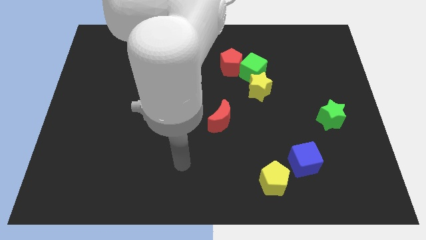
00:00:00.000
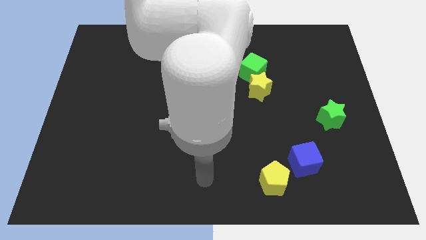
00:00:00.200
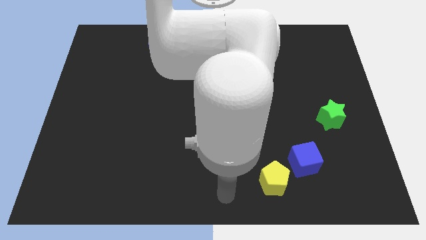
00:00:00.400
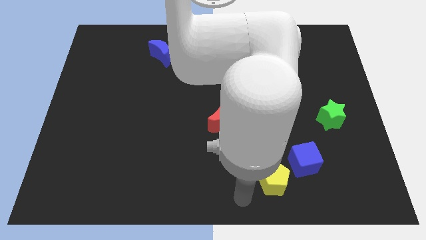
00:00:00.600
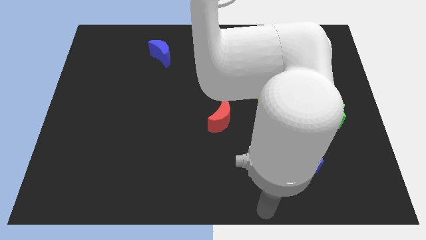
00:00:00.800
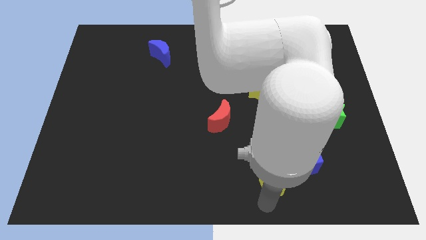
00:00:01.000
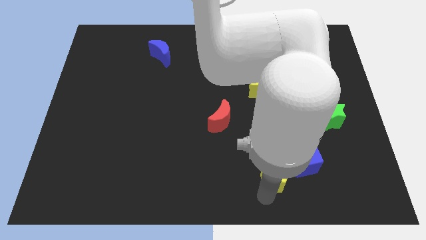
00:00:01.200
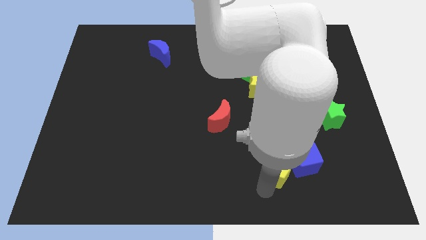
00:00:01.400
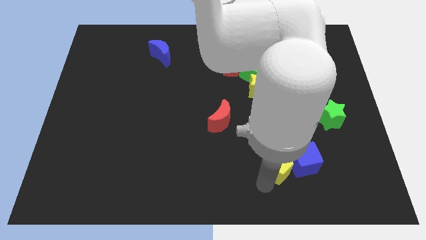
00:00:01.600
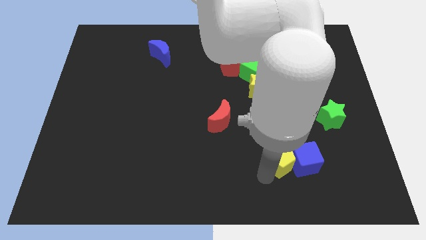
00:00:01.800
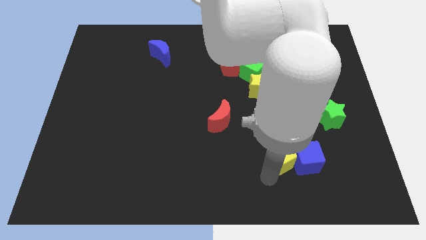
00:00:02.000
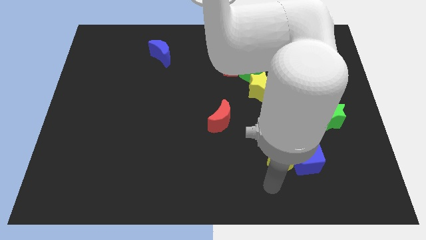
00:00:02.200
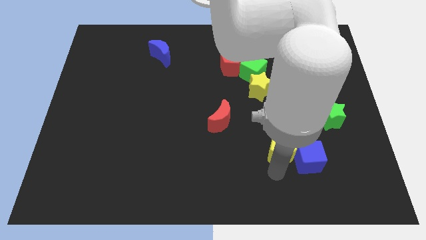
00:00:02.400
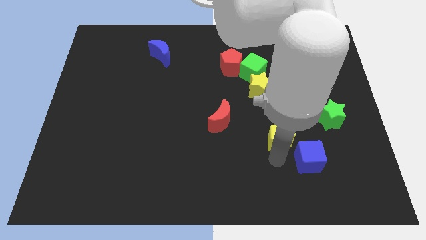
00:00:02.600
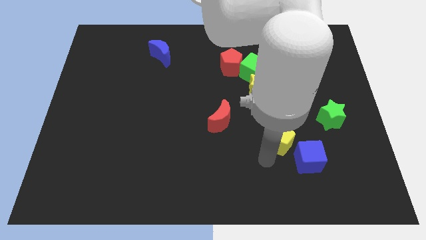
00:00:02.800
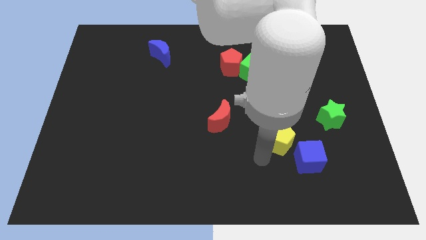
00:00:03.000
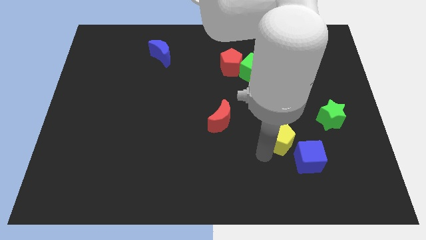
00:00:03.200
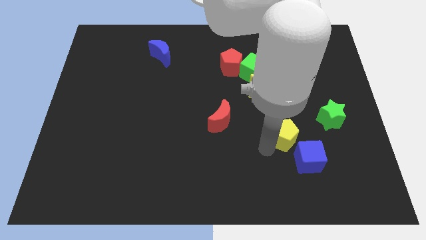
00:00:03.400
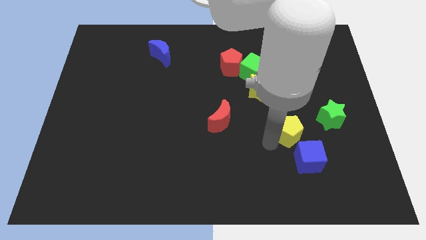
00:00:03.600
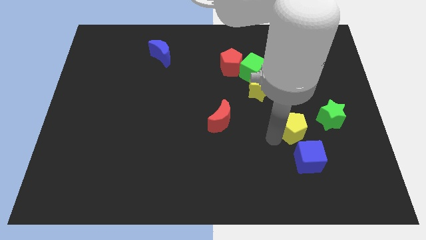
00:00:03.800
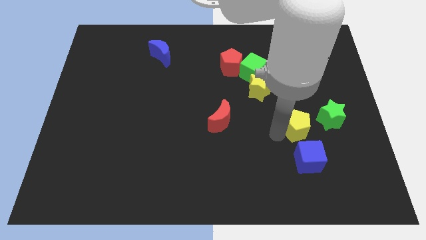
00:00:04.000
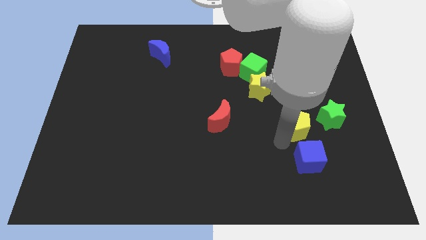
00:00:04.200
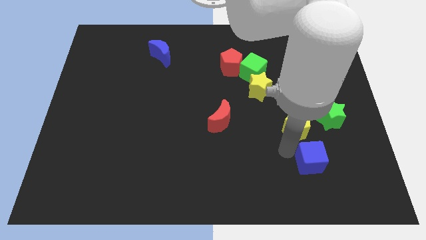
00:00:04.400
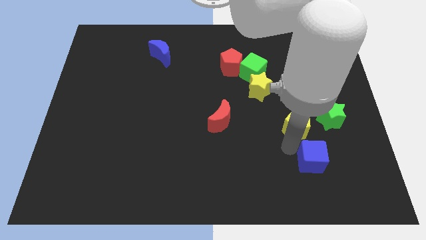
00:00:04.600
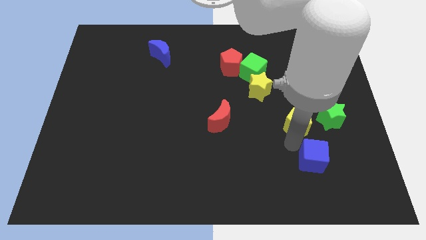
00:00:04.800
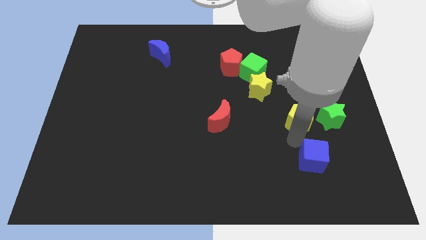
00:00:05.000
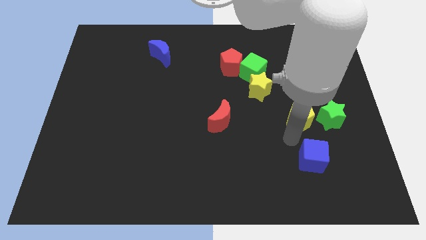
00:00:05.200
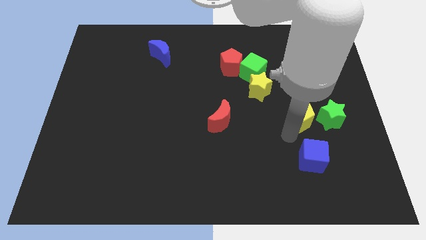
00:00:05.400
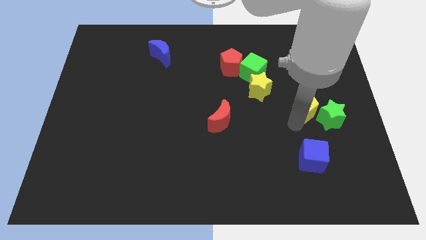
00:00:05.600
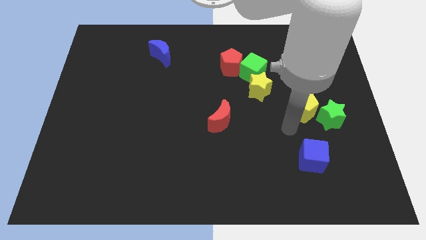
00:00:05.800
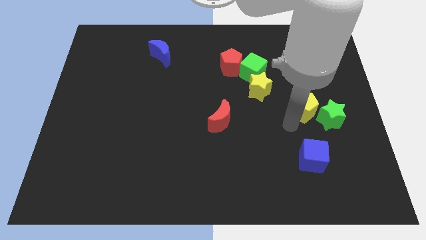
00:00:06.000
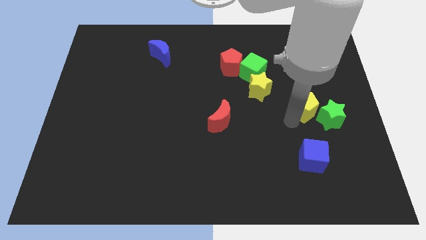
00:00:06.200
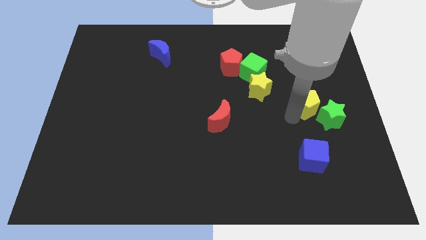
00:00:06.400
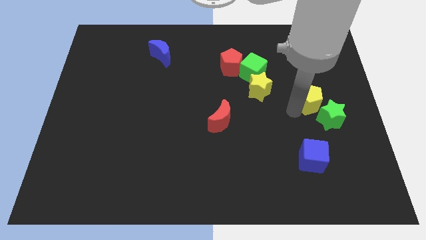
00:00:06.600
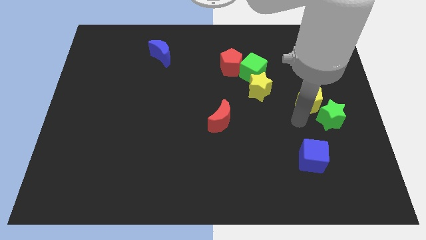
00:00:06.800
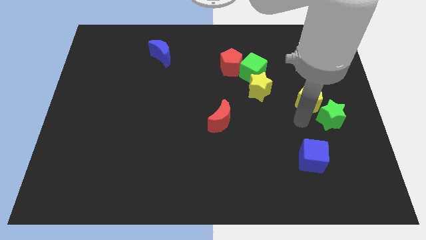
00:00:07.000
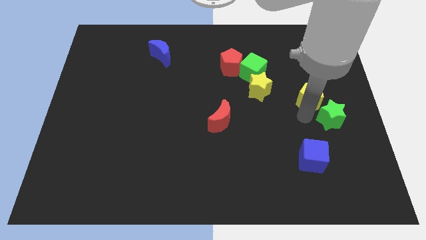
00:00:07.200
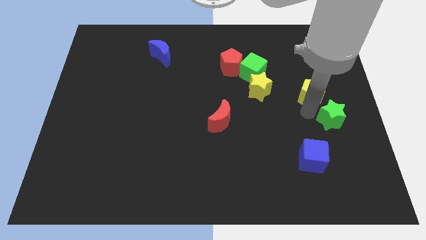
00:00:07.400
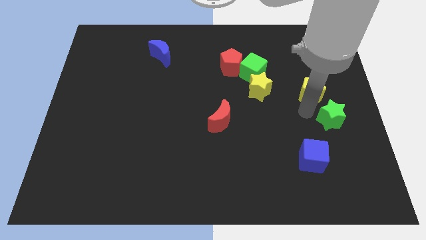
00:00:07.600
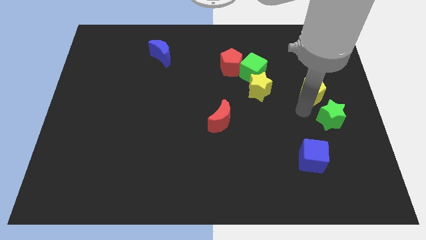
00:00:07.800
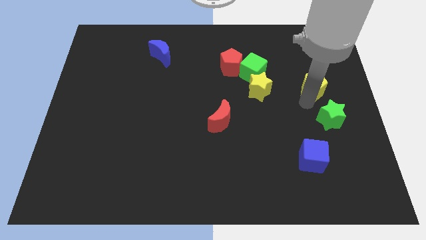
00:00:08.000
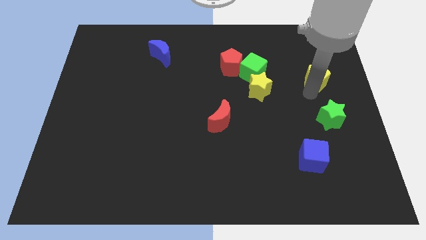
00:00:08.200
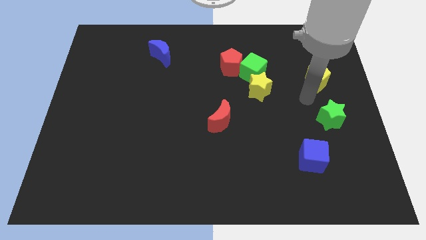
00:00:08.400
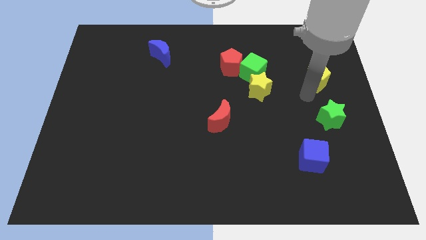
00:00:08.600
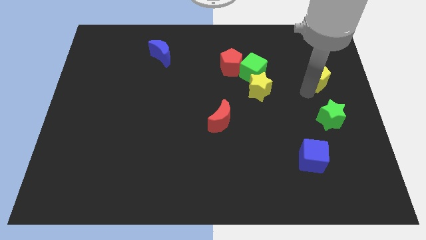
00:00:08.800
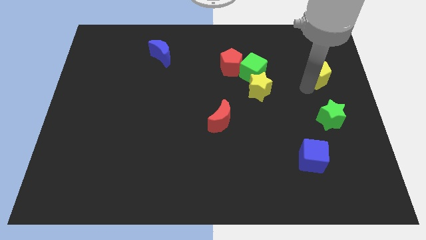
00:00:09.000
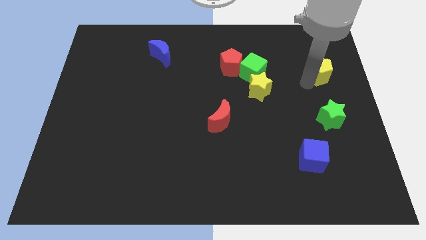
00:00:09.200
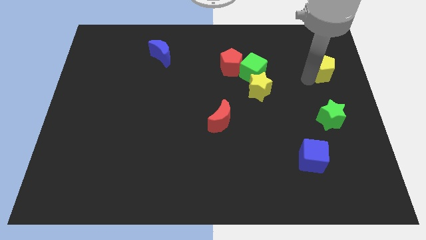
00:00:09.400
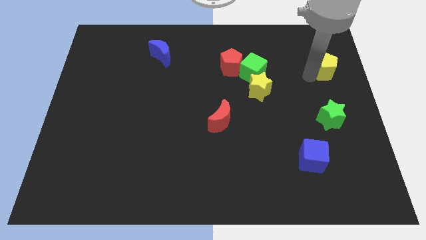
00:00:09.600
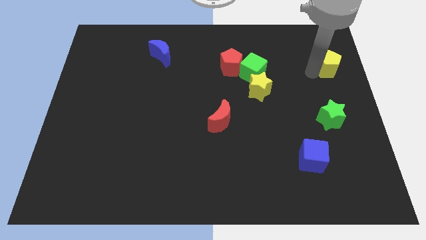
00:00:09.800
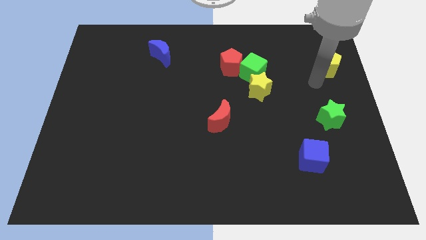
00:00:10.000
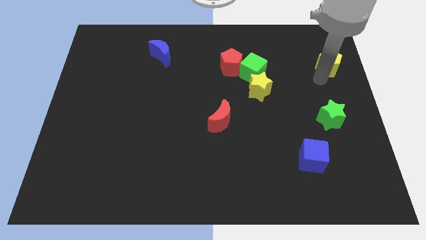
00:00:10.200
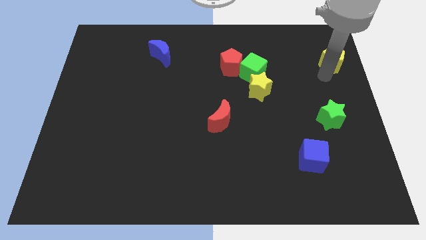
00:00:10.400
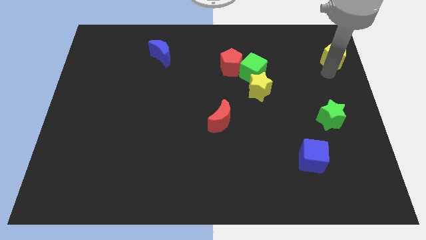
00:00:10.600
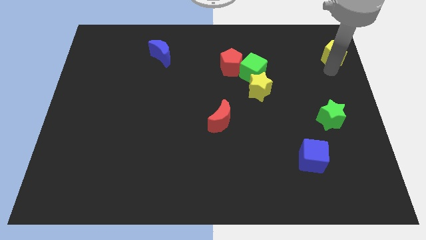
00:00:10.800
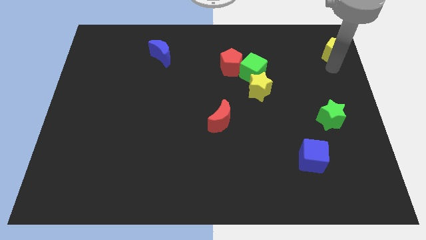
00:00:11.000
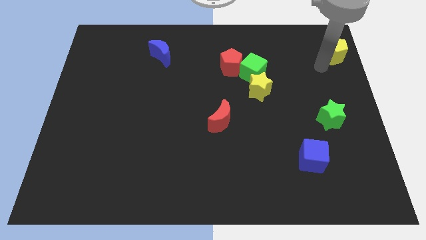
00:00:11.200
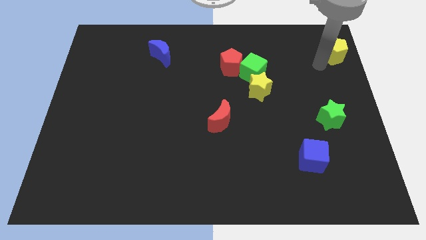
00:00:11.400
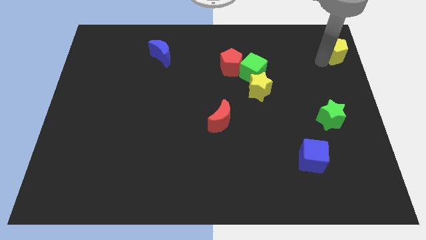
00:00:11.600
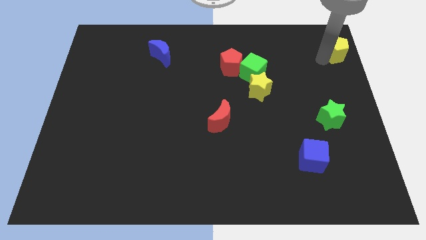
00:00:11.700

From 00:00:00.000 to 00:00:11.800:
move the yellow pentagon to the top right

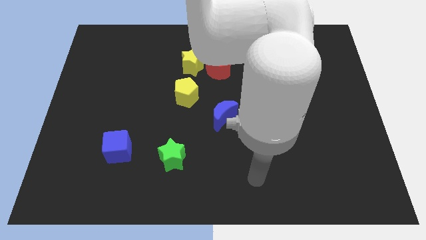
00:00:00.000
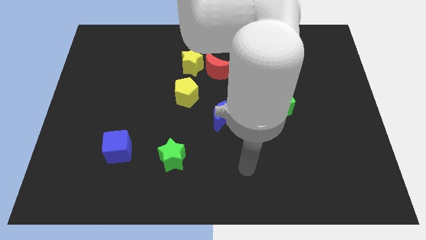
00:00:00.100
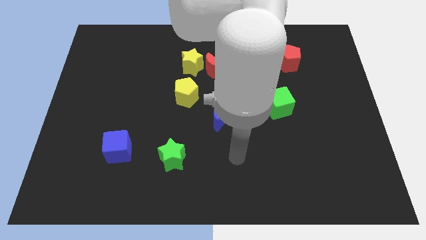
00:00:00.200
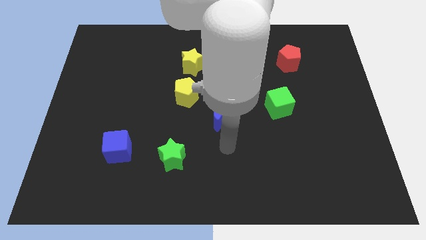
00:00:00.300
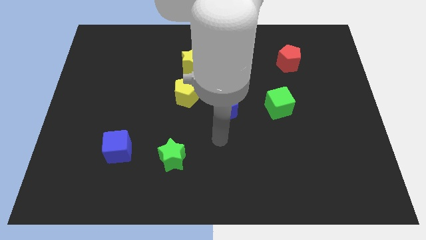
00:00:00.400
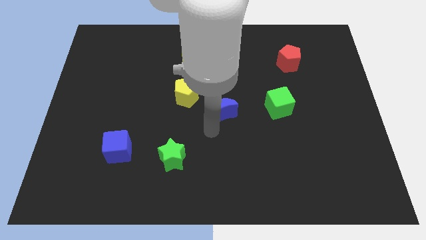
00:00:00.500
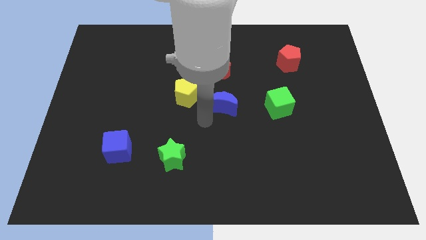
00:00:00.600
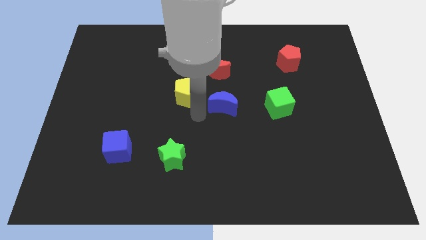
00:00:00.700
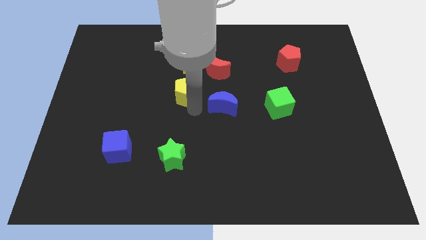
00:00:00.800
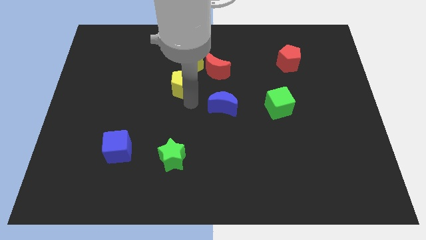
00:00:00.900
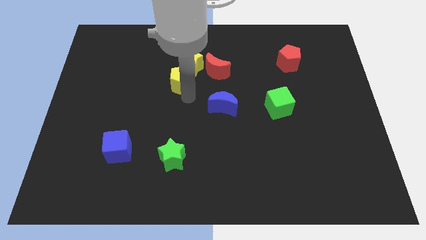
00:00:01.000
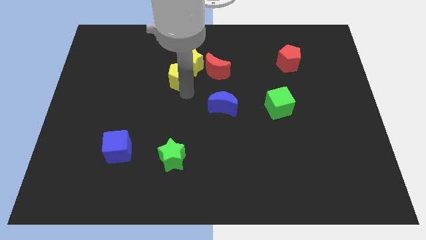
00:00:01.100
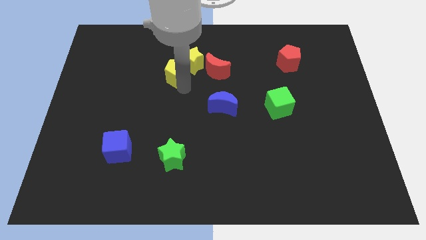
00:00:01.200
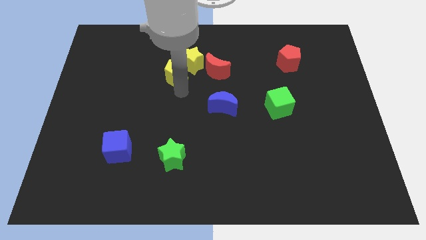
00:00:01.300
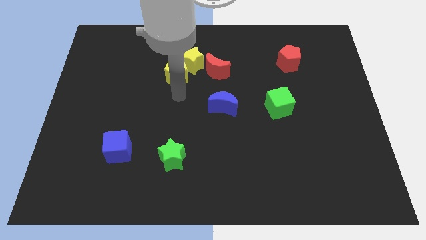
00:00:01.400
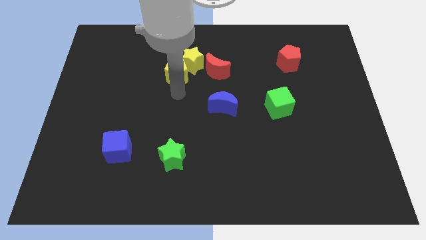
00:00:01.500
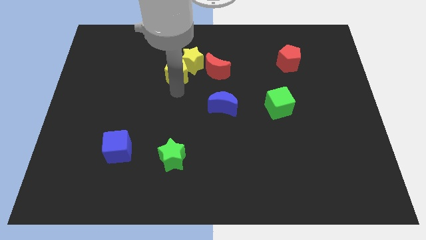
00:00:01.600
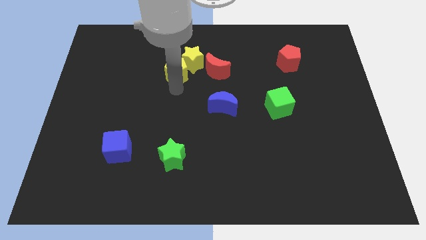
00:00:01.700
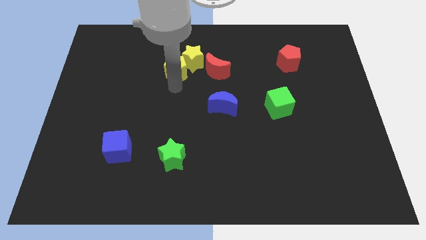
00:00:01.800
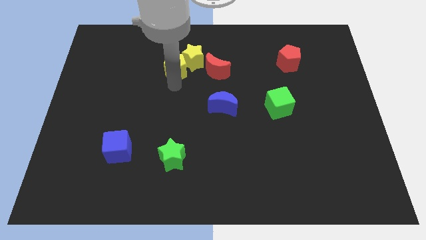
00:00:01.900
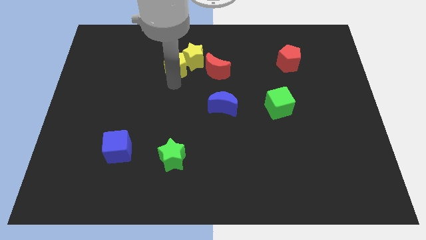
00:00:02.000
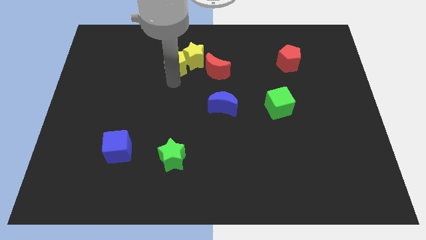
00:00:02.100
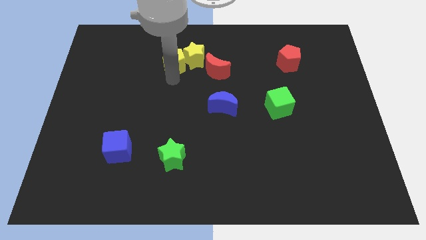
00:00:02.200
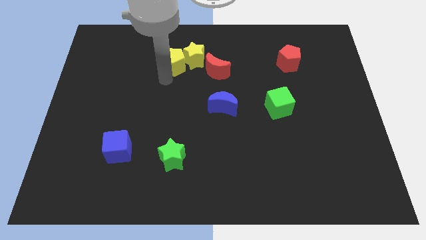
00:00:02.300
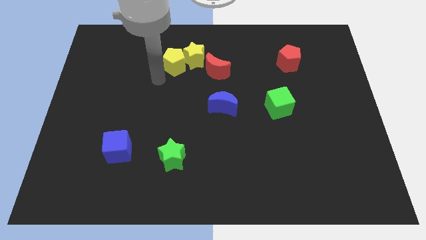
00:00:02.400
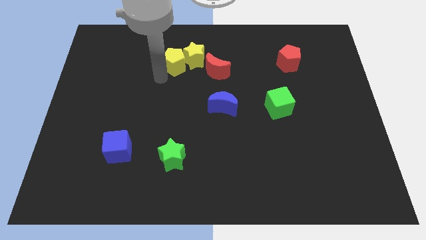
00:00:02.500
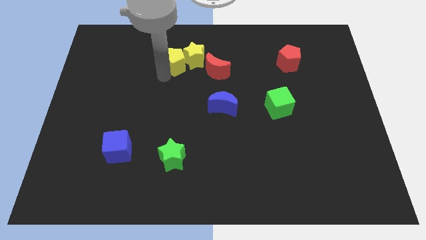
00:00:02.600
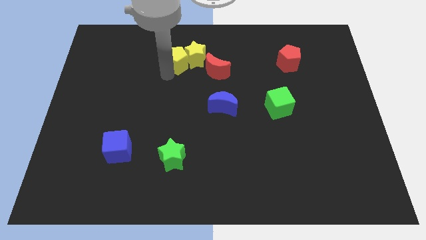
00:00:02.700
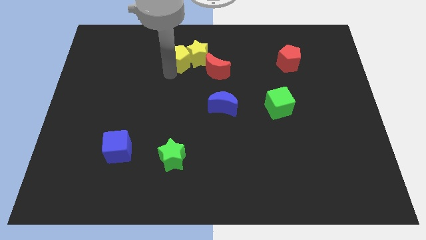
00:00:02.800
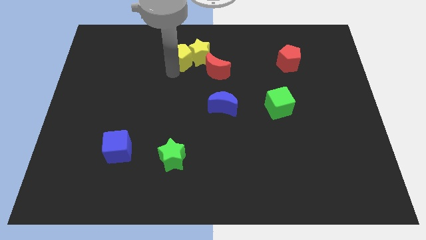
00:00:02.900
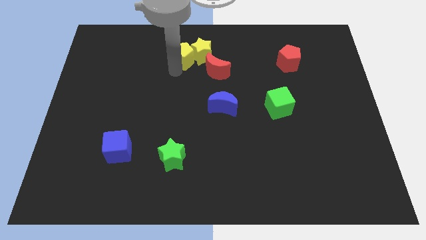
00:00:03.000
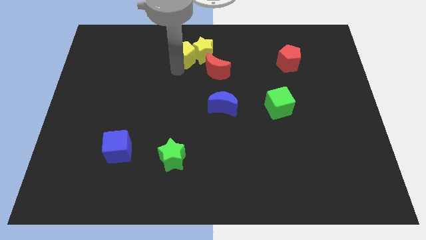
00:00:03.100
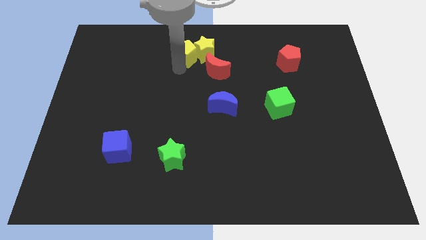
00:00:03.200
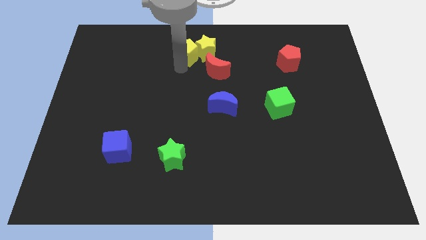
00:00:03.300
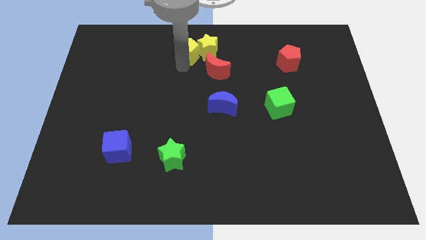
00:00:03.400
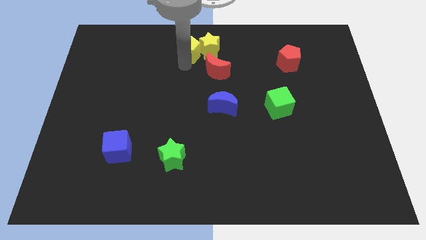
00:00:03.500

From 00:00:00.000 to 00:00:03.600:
push the yellow pentagon to the top side
